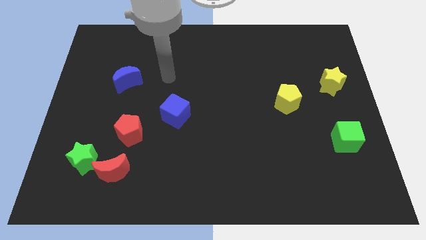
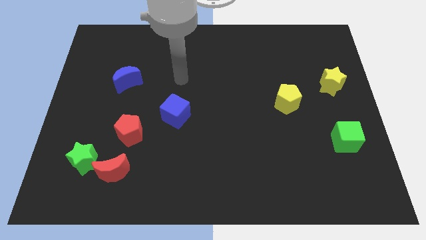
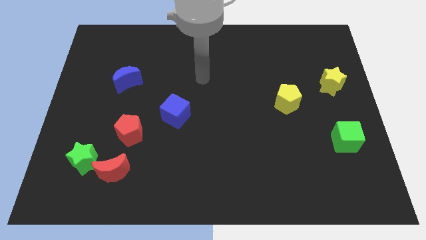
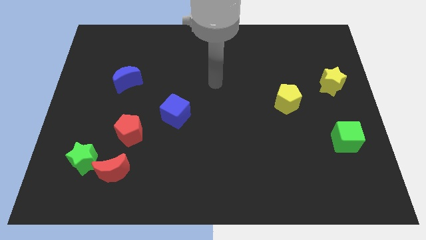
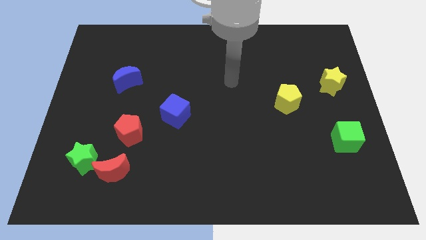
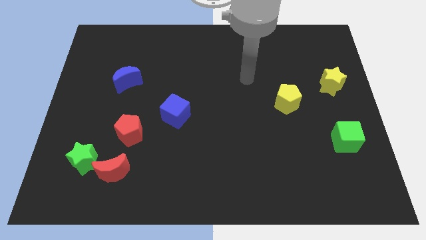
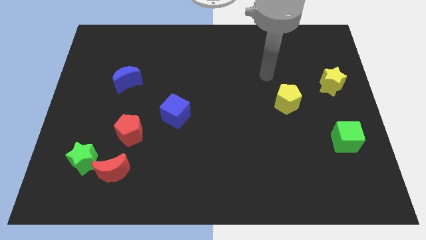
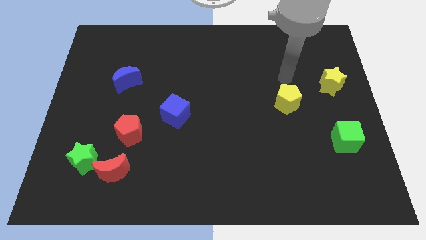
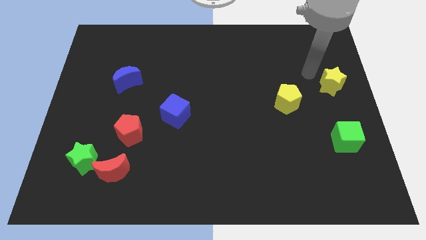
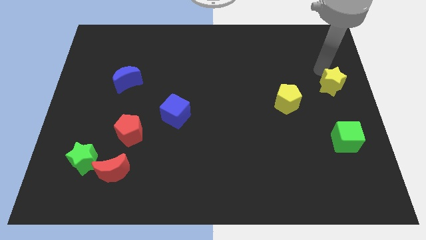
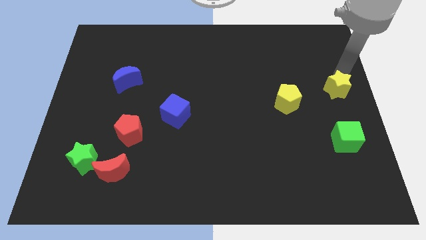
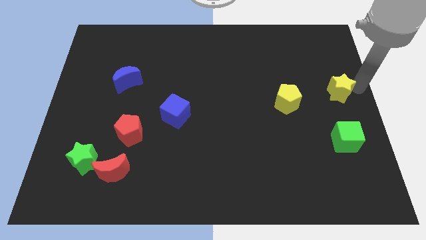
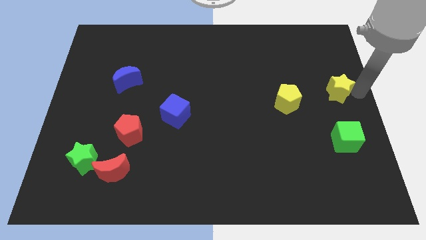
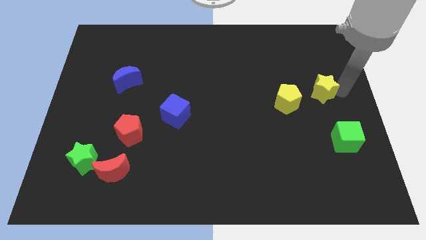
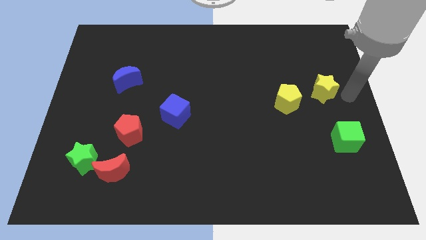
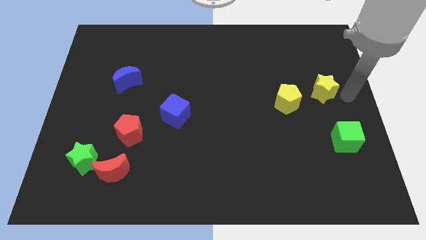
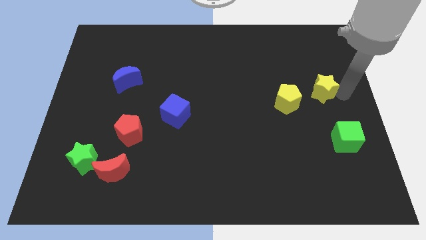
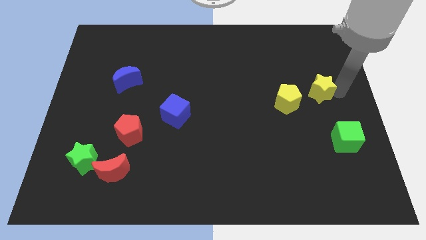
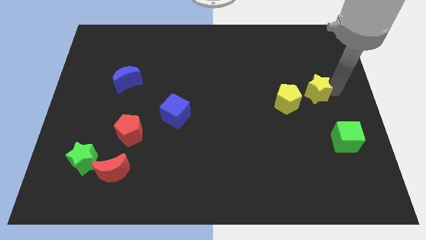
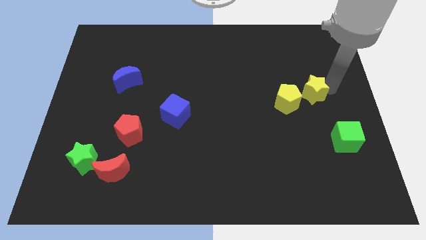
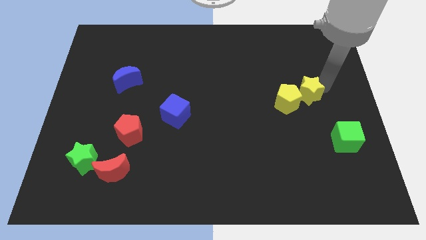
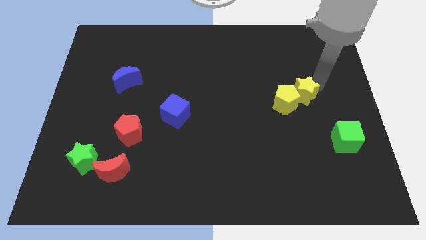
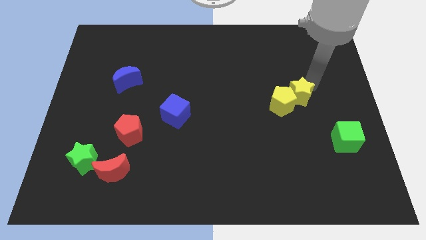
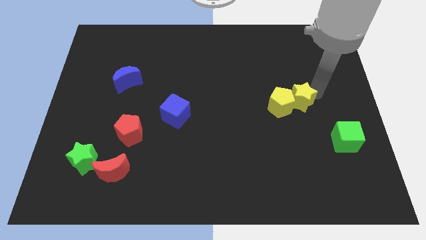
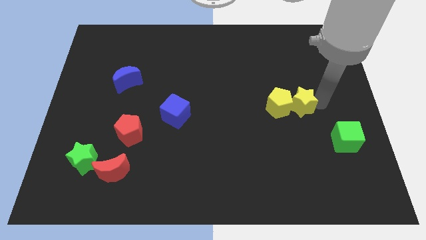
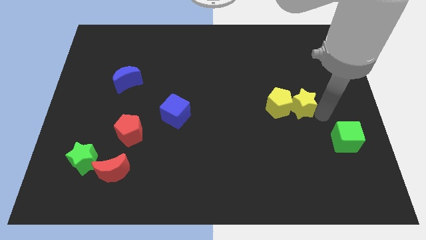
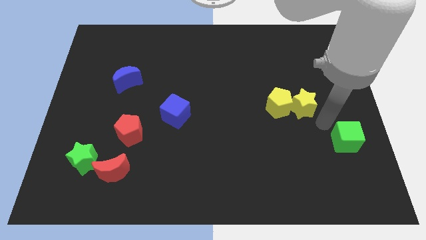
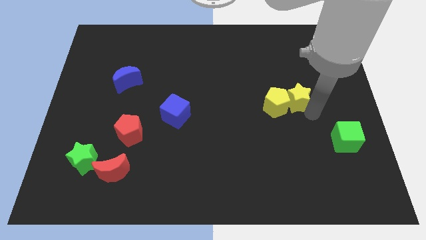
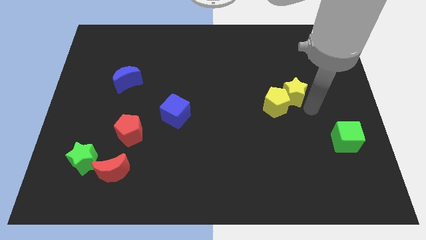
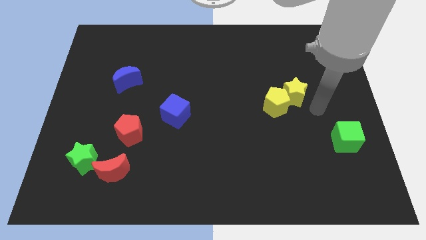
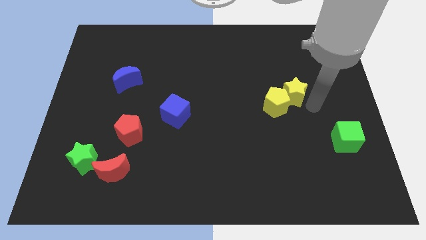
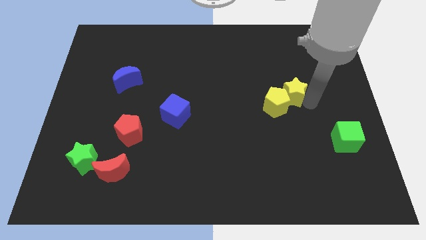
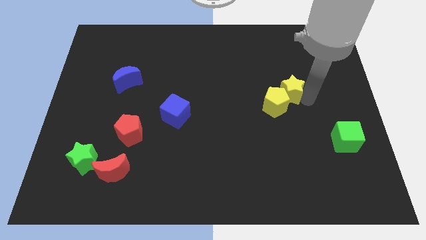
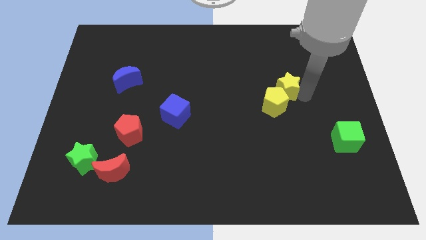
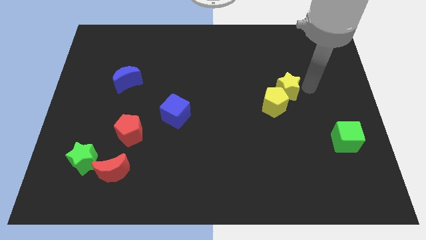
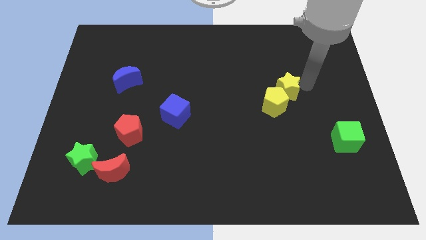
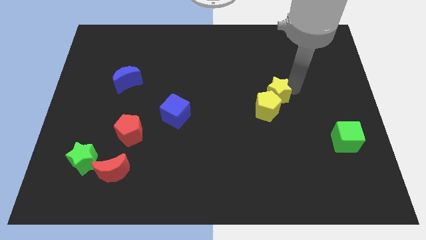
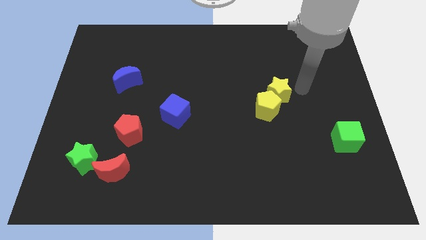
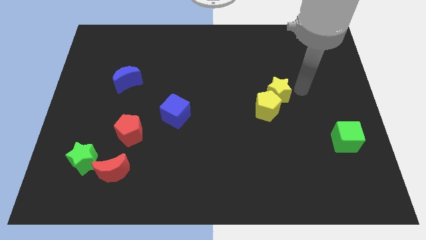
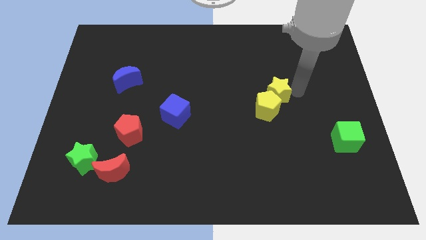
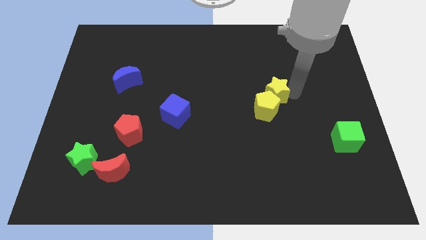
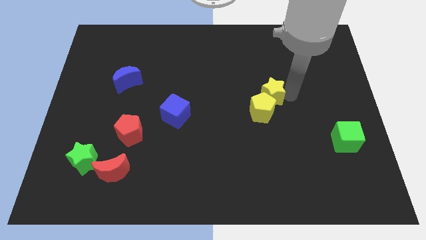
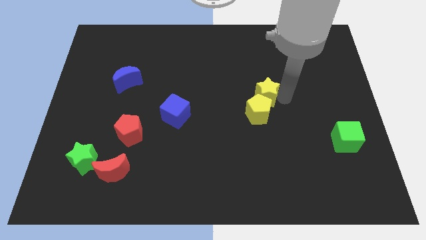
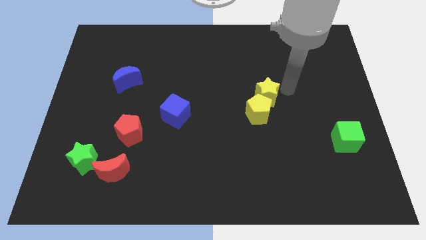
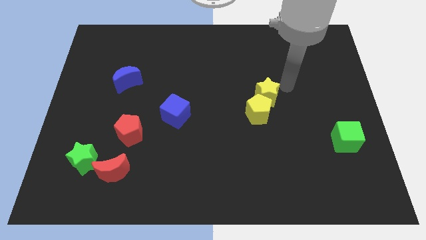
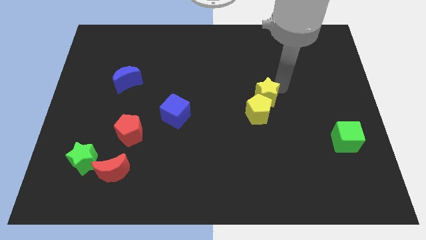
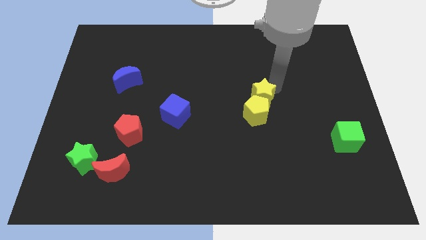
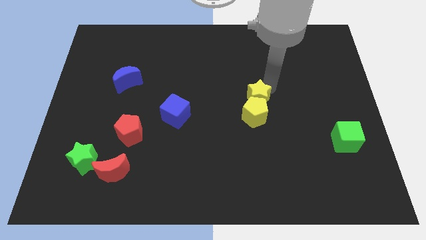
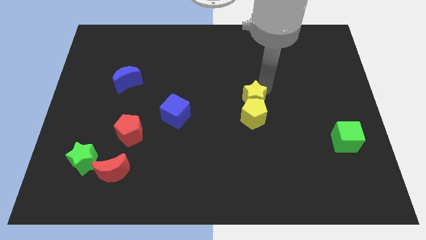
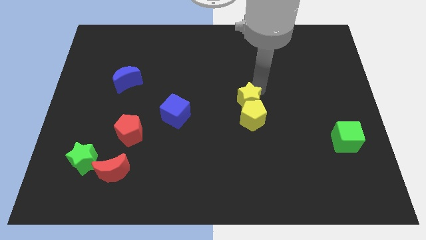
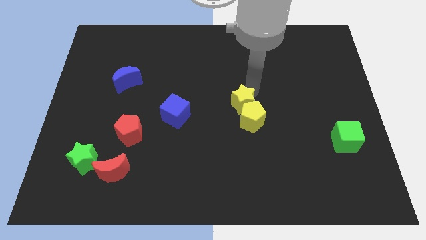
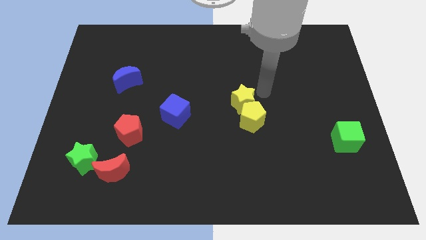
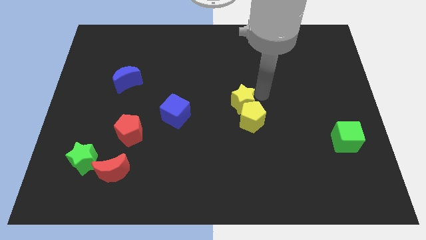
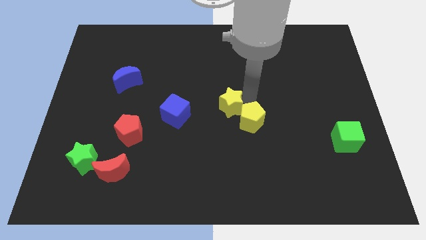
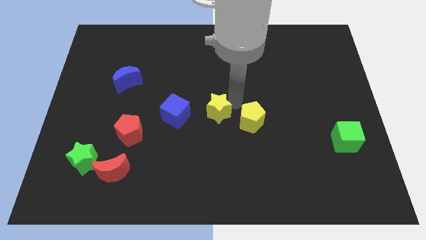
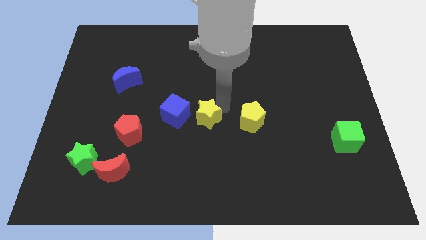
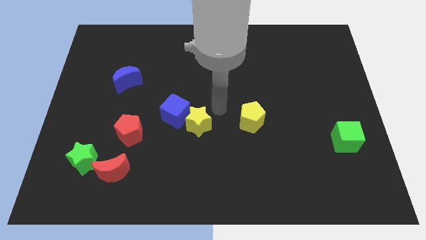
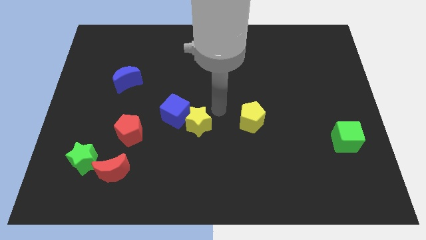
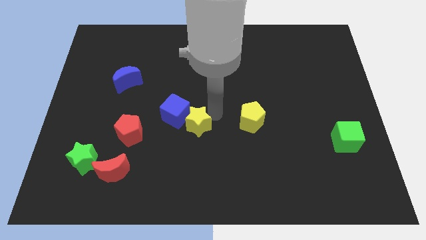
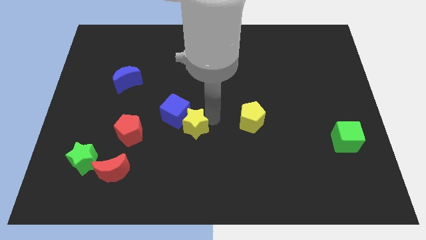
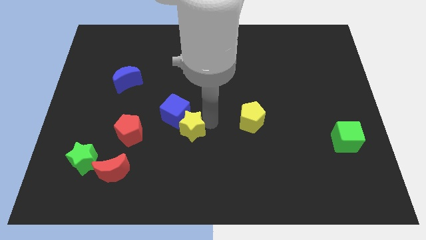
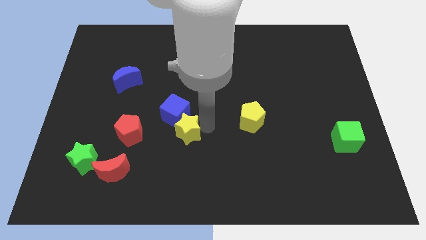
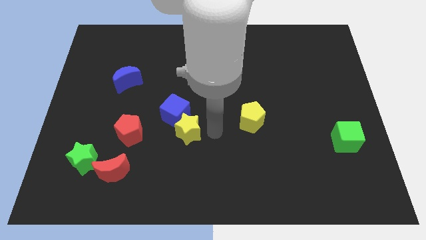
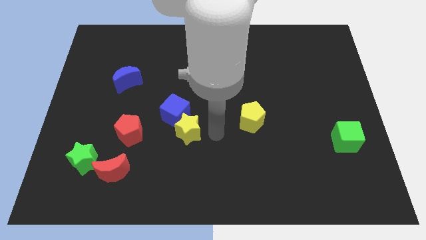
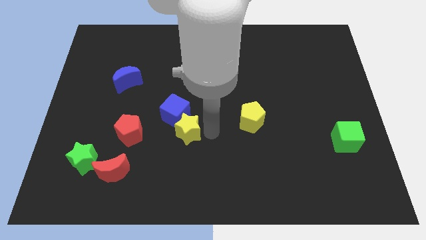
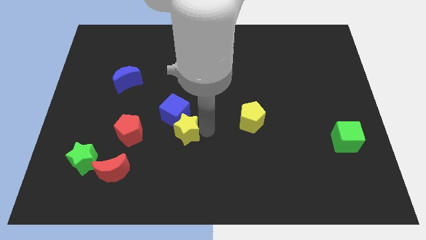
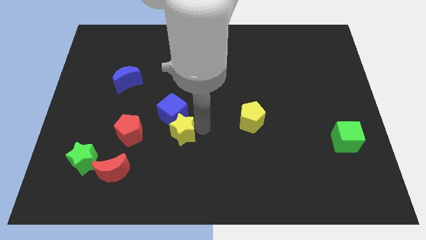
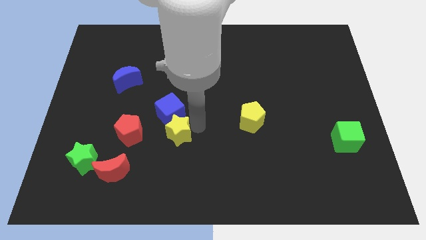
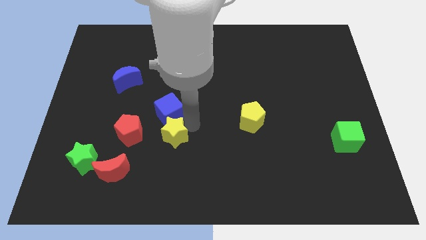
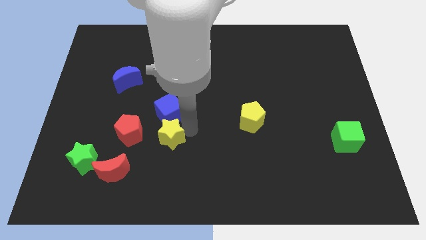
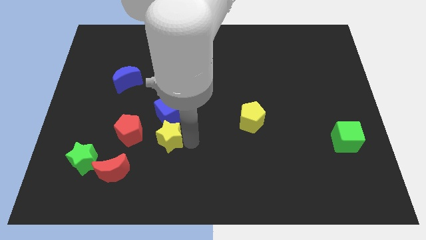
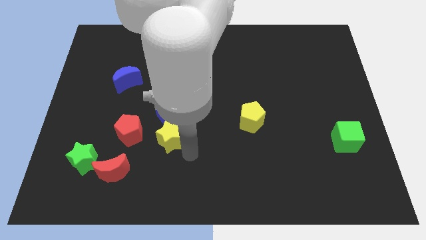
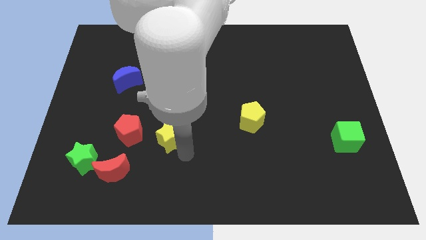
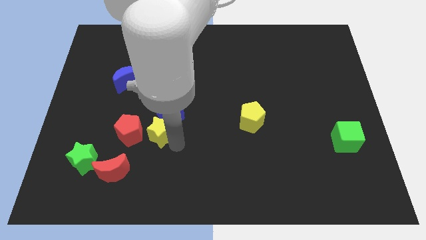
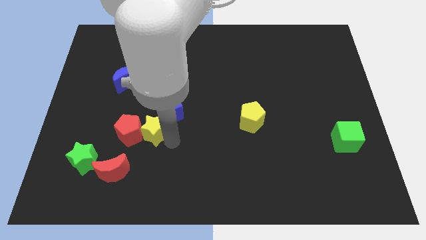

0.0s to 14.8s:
push the yellow star close to the red pentagon

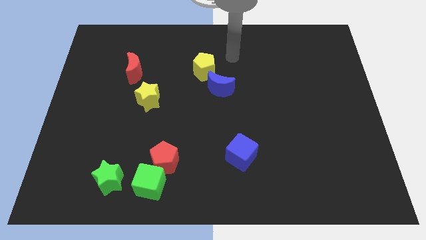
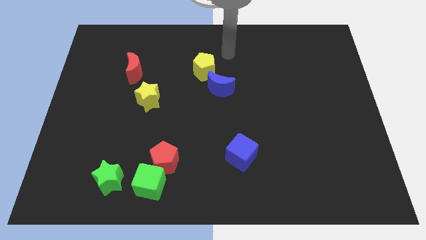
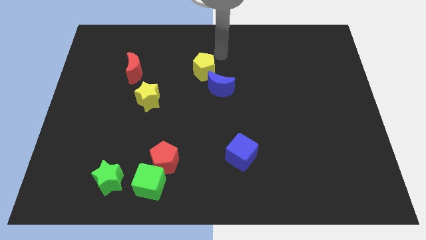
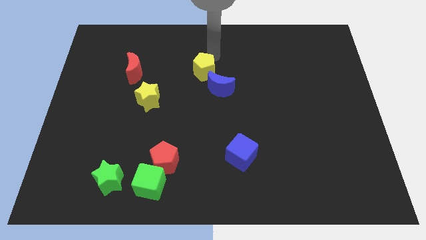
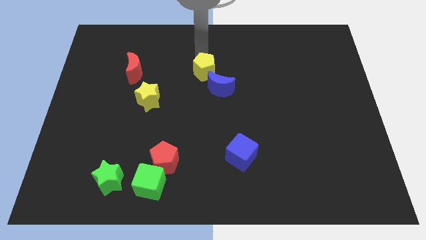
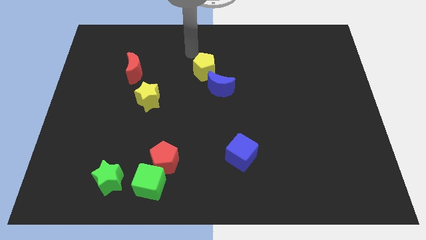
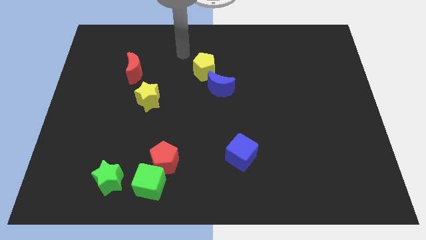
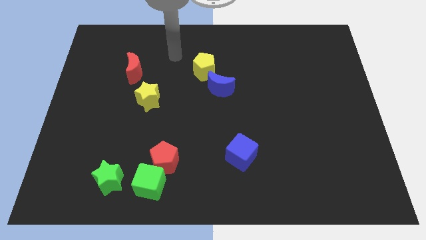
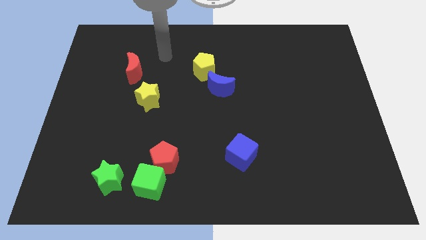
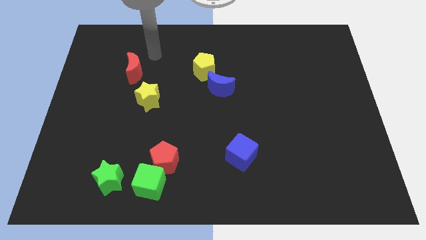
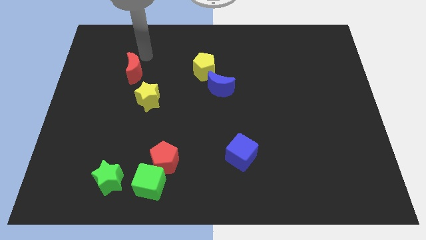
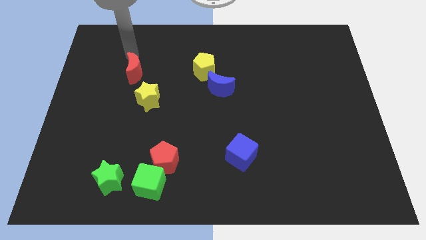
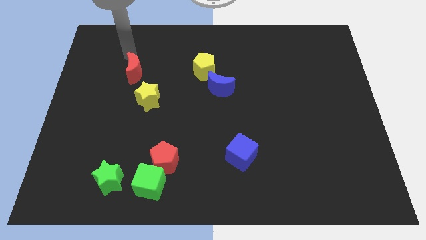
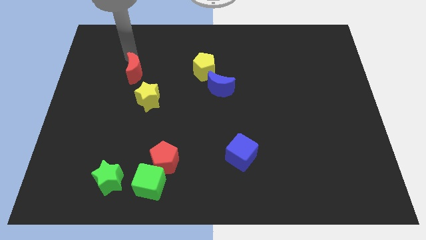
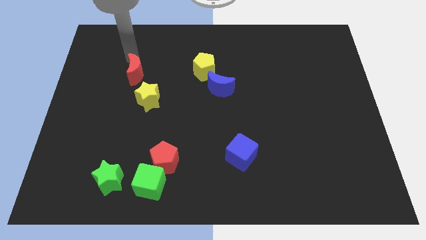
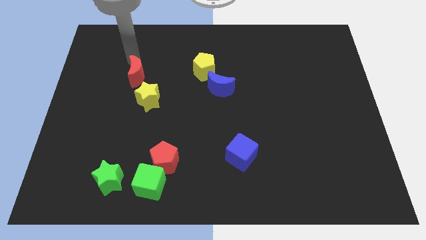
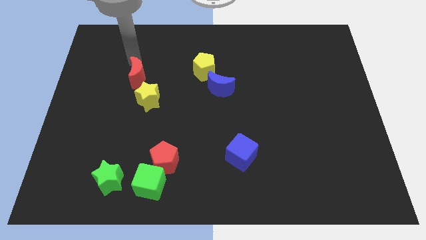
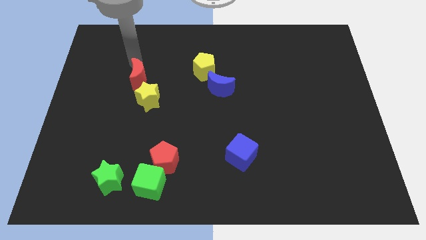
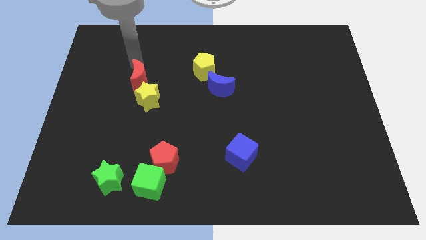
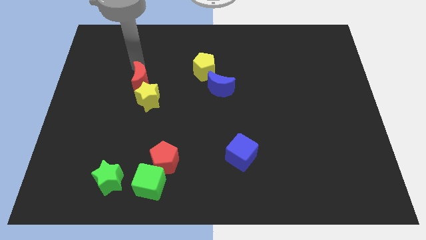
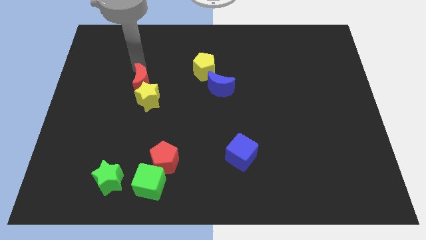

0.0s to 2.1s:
slide the red moon close to the yellow star
